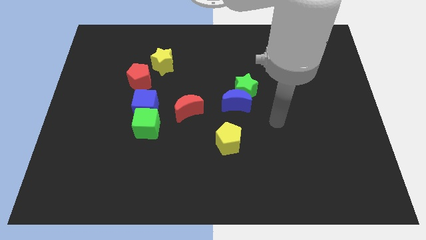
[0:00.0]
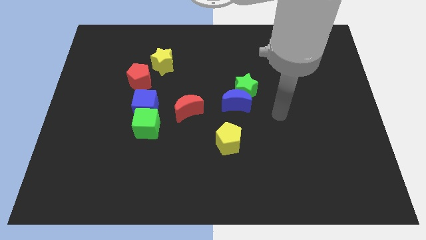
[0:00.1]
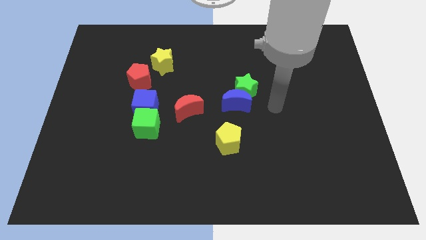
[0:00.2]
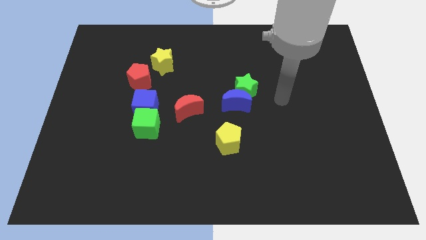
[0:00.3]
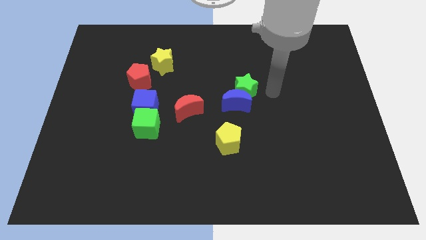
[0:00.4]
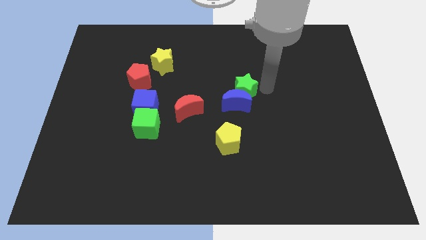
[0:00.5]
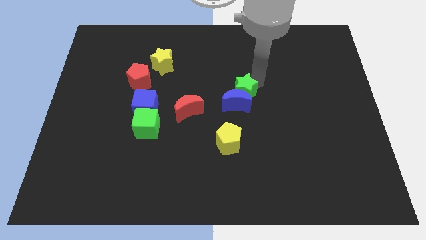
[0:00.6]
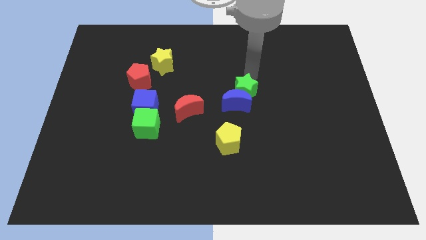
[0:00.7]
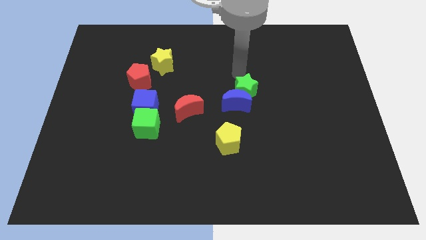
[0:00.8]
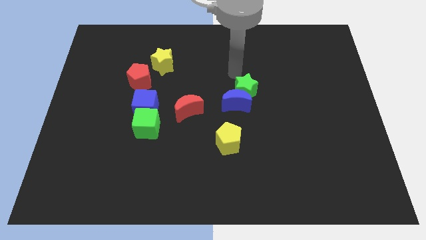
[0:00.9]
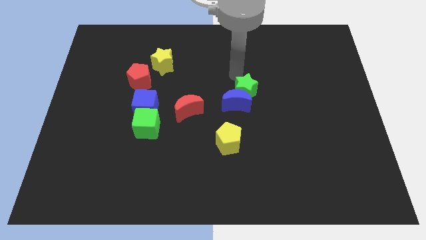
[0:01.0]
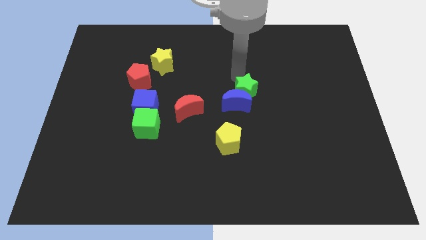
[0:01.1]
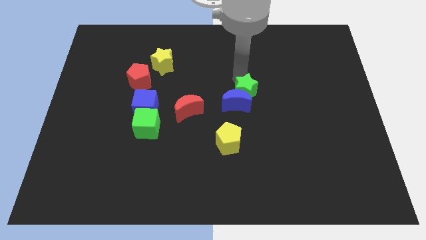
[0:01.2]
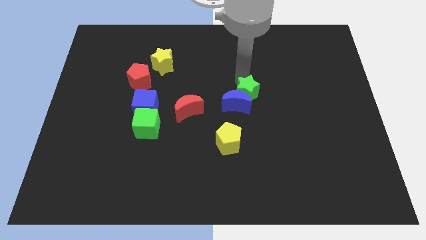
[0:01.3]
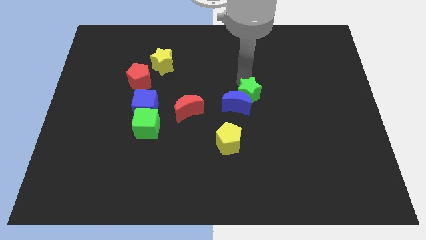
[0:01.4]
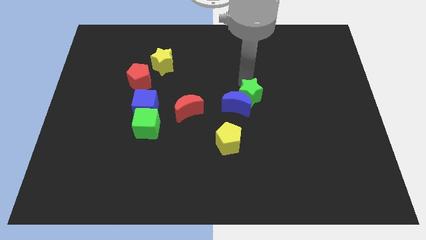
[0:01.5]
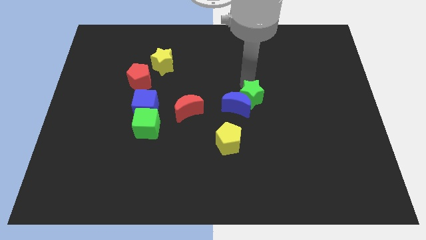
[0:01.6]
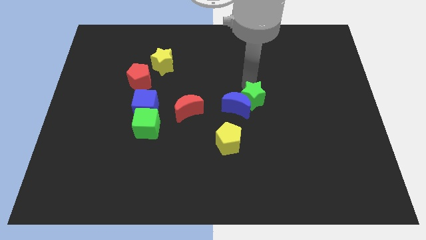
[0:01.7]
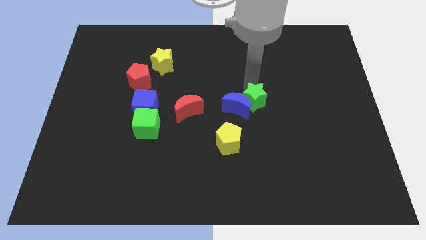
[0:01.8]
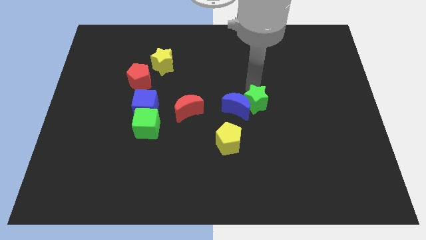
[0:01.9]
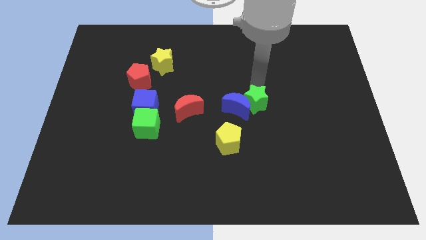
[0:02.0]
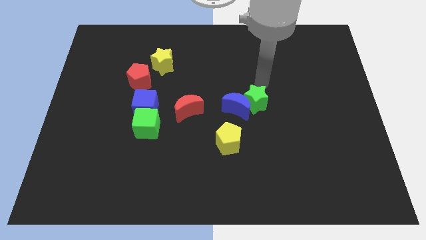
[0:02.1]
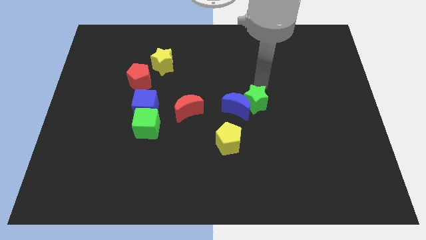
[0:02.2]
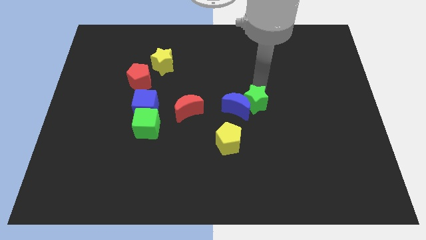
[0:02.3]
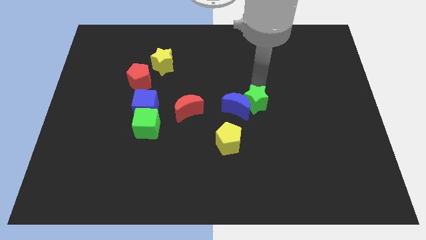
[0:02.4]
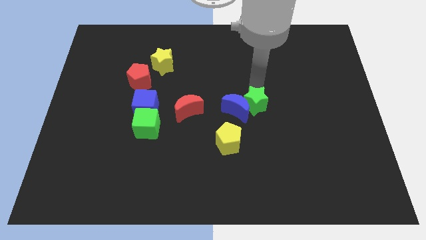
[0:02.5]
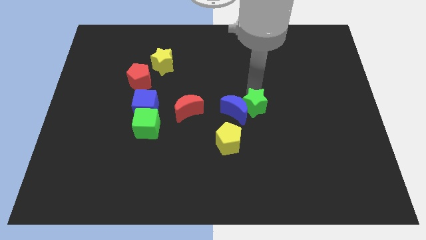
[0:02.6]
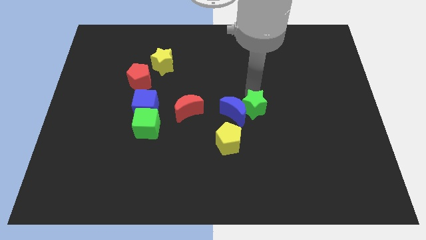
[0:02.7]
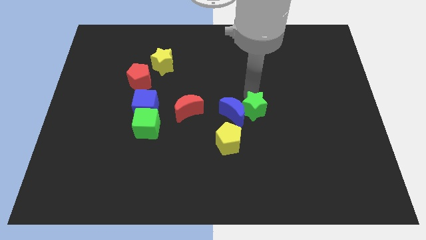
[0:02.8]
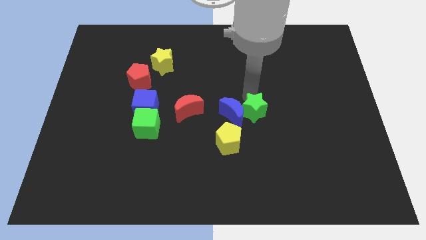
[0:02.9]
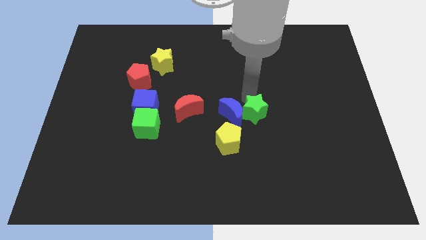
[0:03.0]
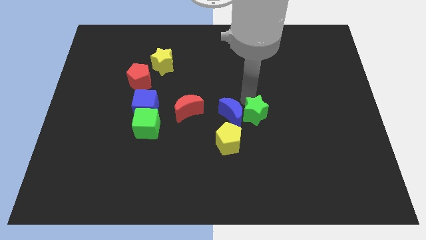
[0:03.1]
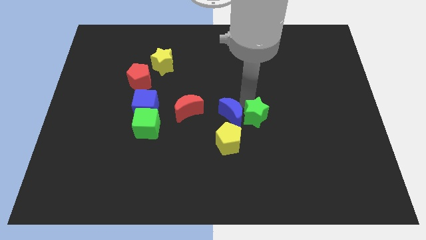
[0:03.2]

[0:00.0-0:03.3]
move the green star somewhat down

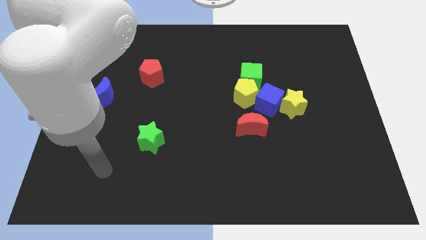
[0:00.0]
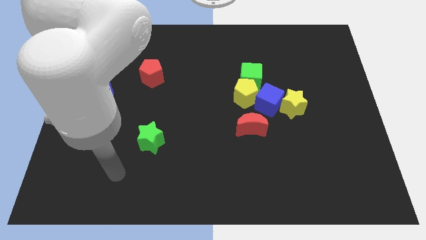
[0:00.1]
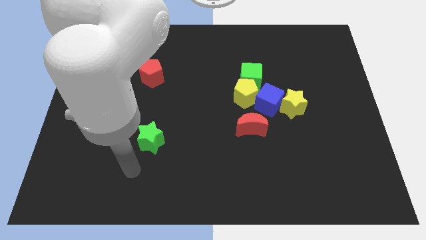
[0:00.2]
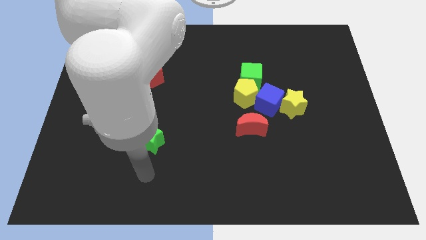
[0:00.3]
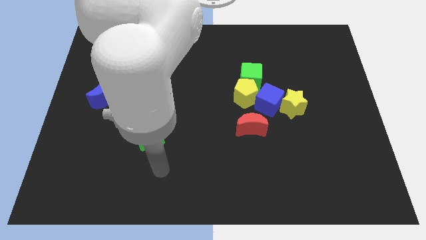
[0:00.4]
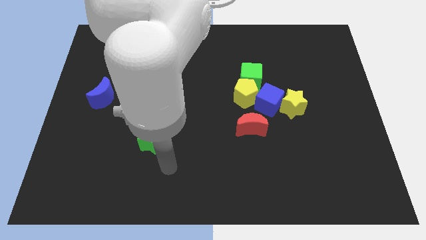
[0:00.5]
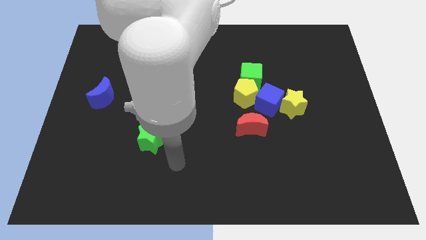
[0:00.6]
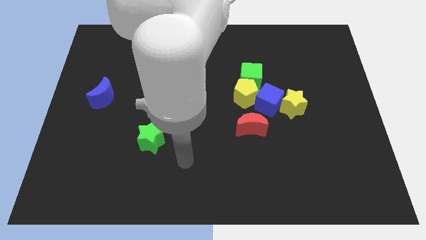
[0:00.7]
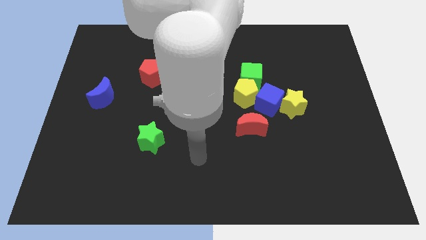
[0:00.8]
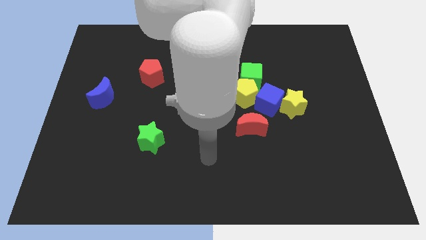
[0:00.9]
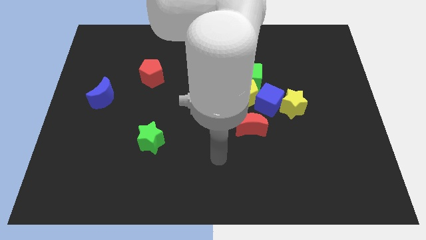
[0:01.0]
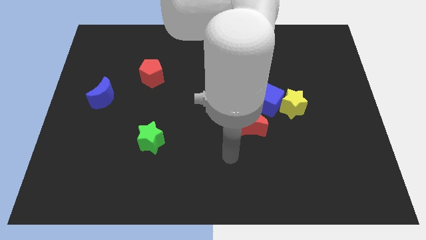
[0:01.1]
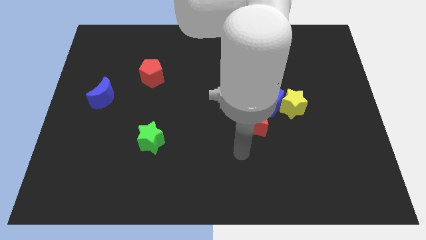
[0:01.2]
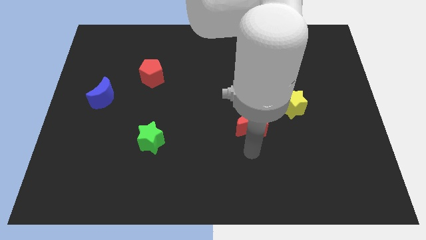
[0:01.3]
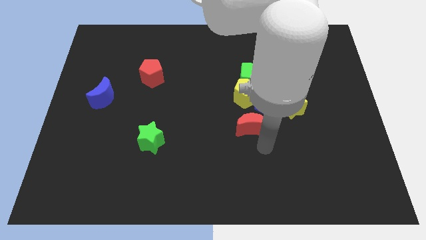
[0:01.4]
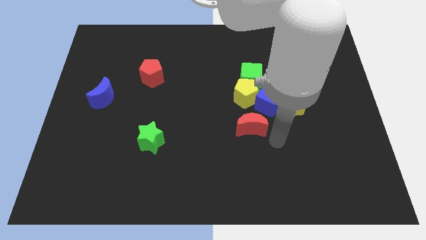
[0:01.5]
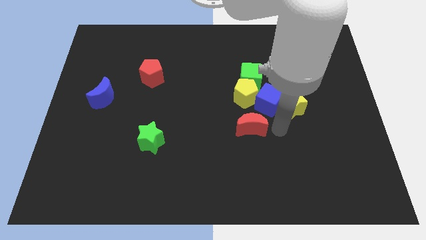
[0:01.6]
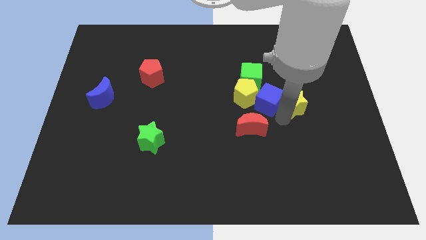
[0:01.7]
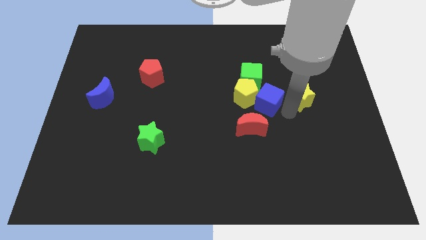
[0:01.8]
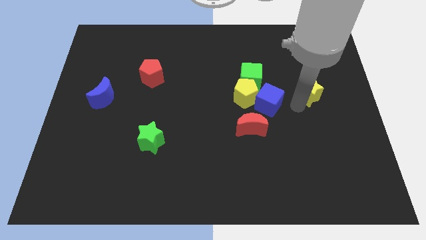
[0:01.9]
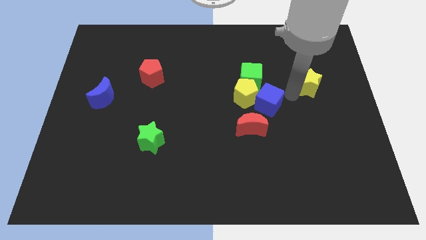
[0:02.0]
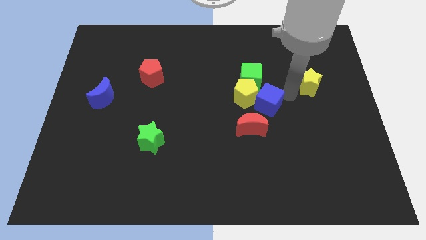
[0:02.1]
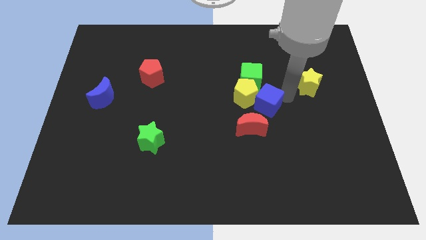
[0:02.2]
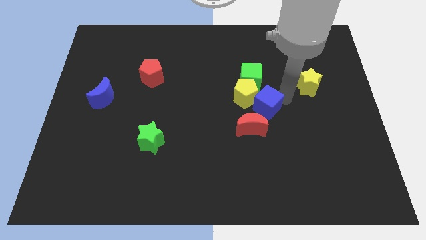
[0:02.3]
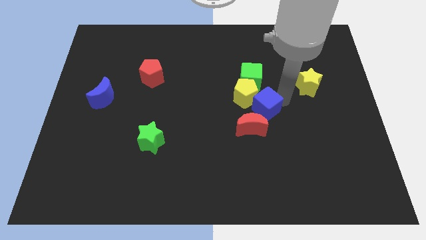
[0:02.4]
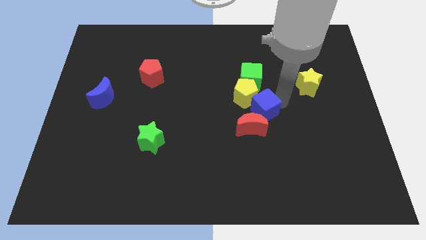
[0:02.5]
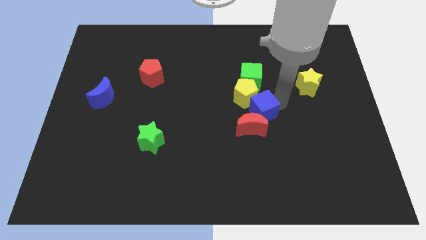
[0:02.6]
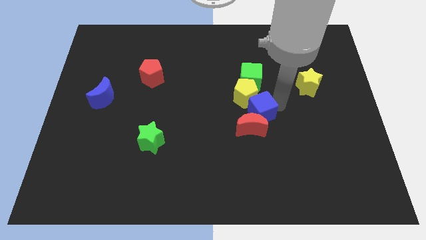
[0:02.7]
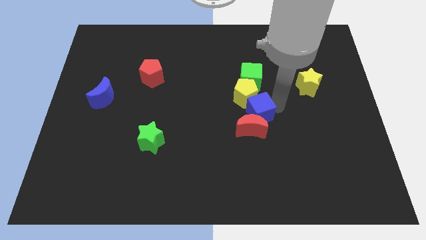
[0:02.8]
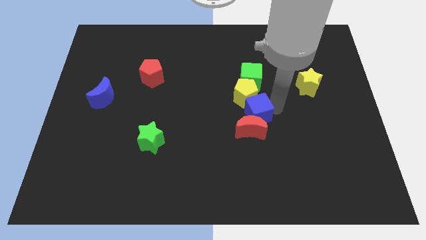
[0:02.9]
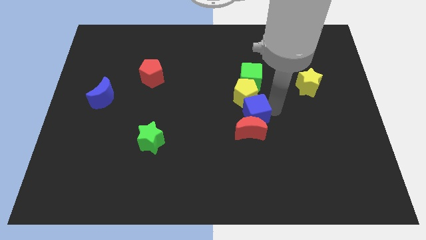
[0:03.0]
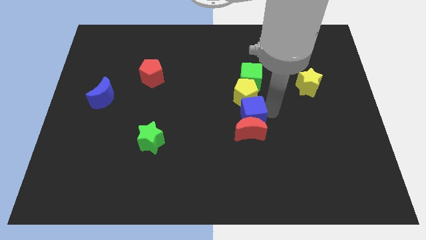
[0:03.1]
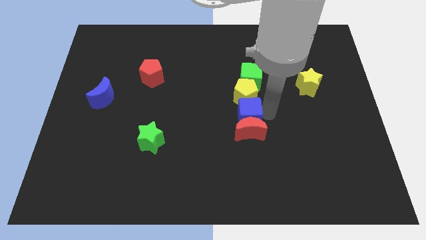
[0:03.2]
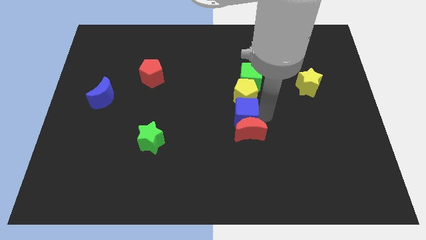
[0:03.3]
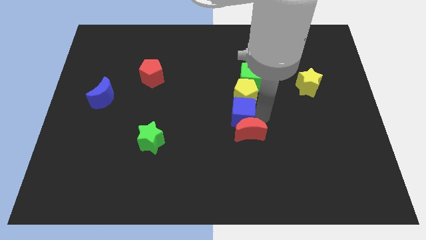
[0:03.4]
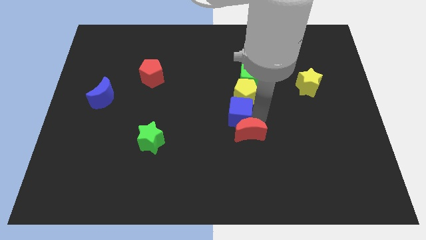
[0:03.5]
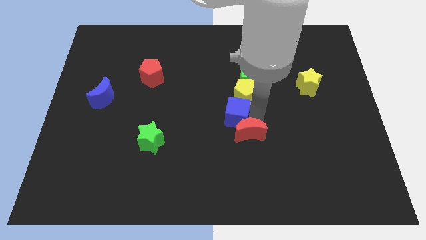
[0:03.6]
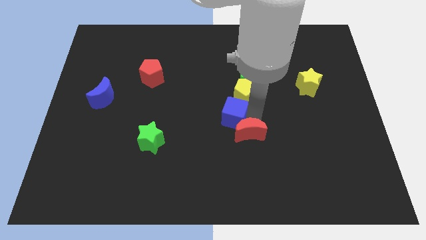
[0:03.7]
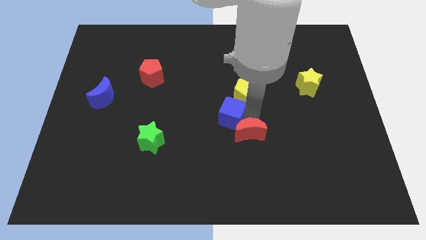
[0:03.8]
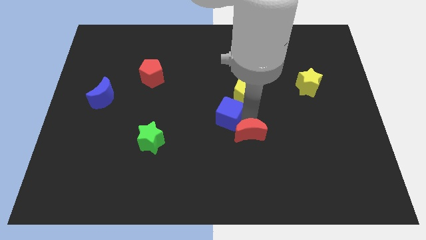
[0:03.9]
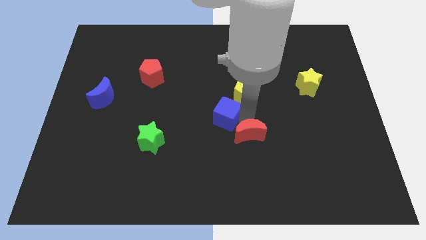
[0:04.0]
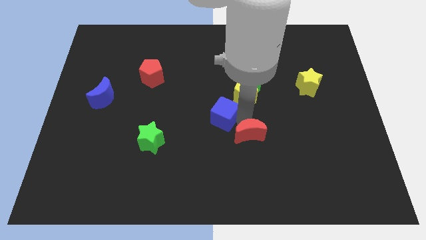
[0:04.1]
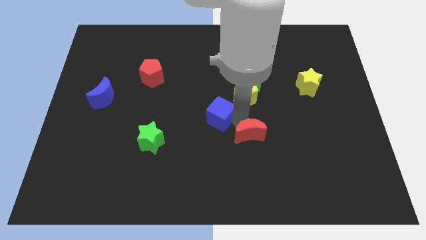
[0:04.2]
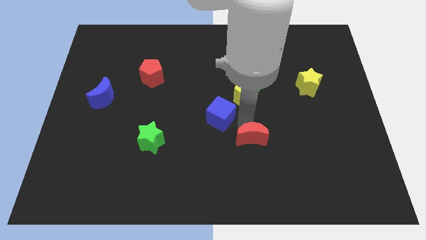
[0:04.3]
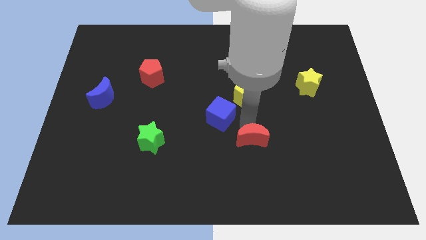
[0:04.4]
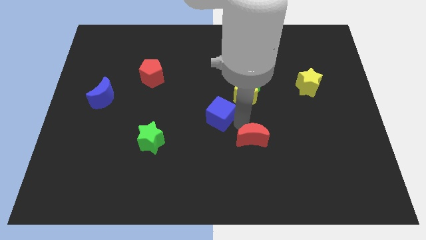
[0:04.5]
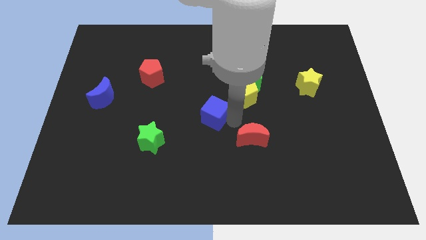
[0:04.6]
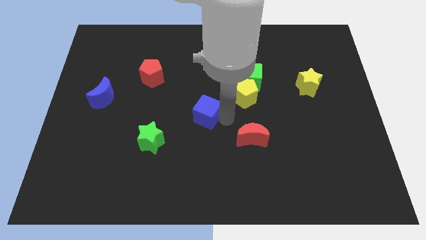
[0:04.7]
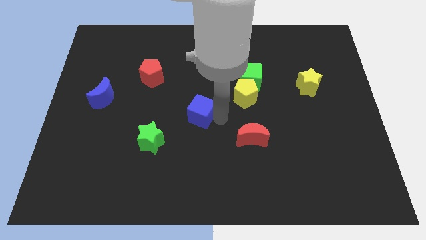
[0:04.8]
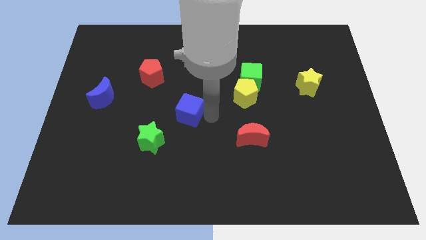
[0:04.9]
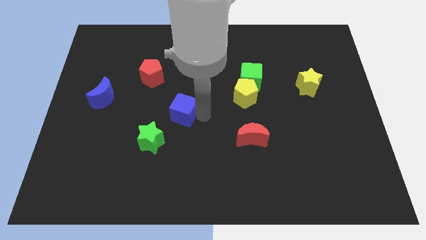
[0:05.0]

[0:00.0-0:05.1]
slide the blue cube left
